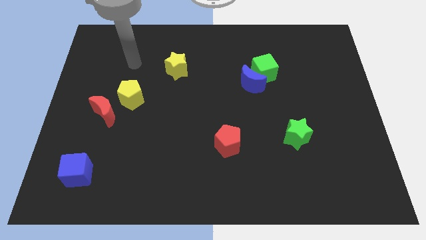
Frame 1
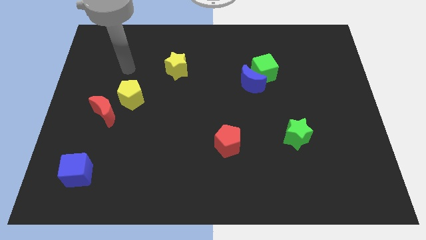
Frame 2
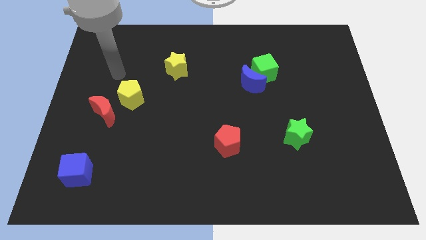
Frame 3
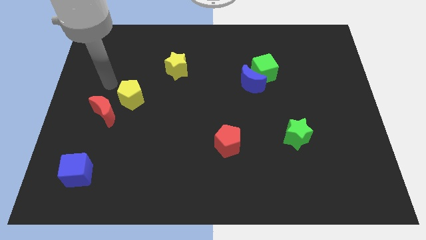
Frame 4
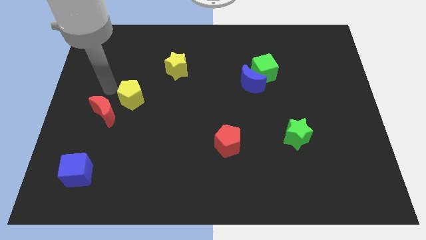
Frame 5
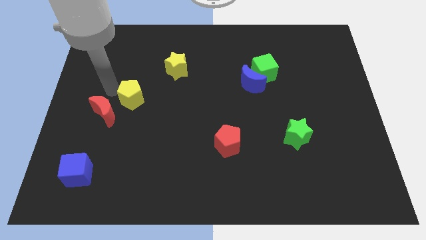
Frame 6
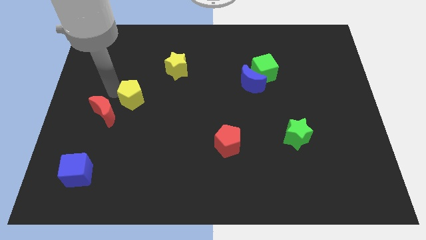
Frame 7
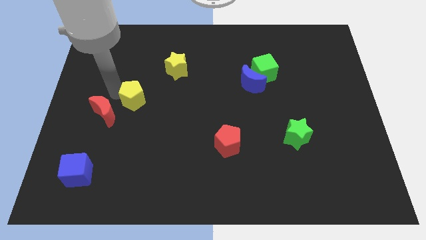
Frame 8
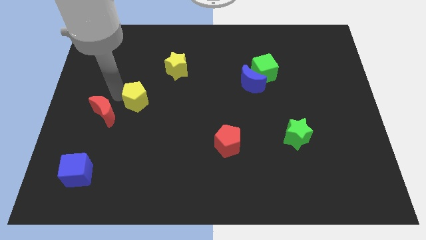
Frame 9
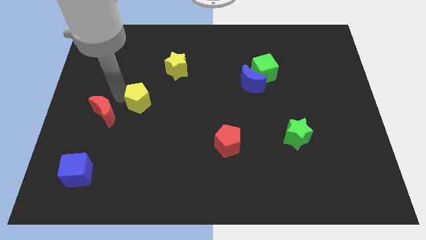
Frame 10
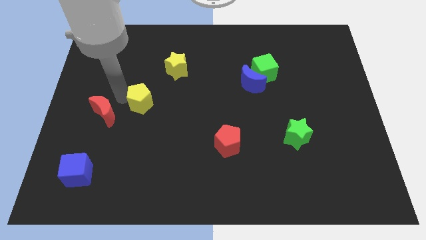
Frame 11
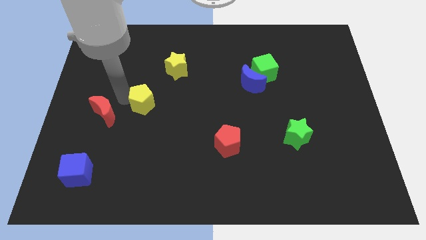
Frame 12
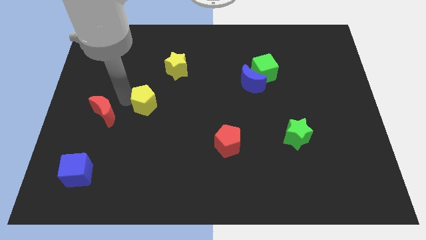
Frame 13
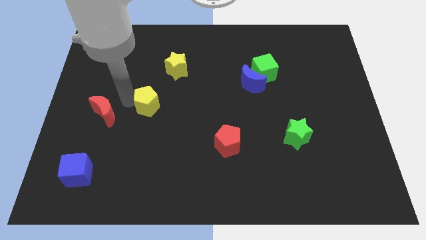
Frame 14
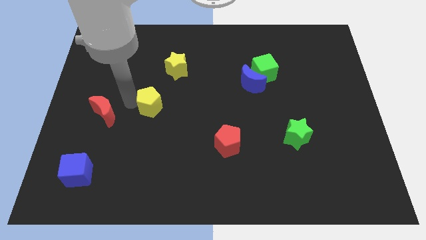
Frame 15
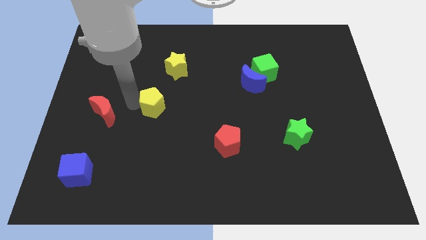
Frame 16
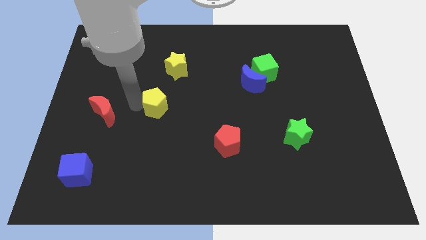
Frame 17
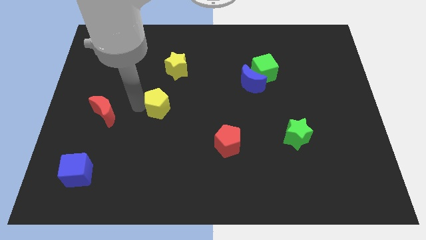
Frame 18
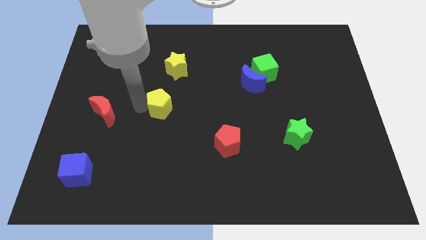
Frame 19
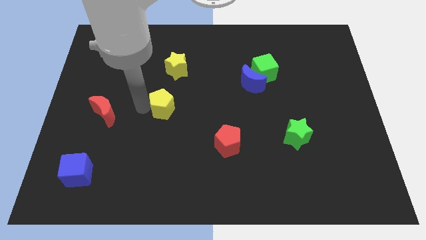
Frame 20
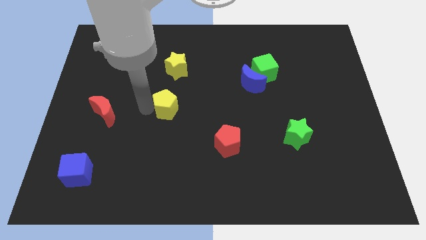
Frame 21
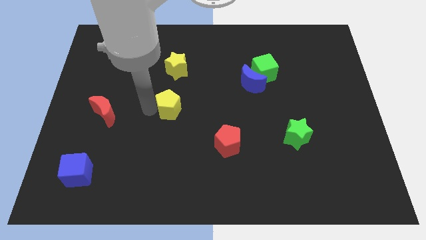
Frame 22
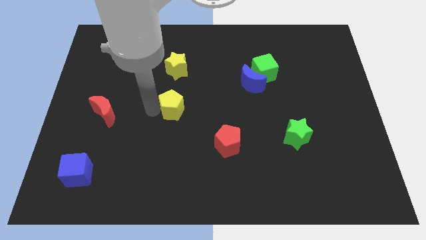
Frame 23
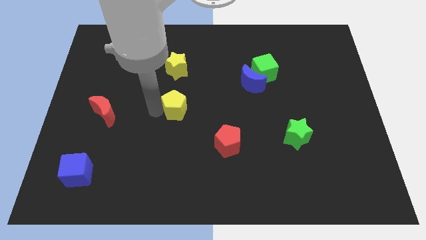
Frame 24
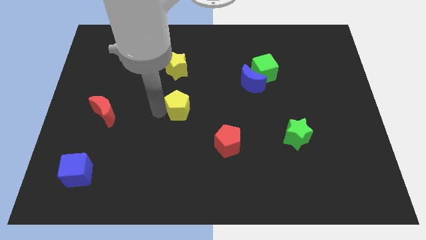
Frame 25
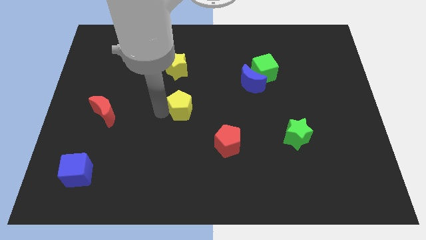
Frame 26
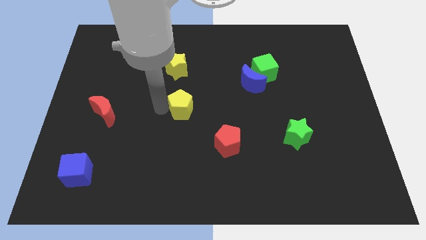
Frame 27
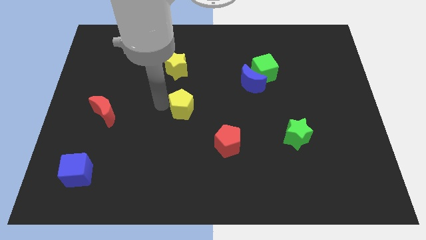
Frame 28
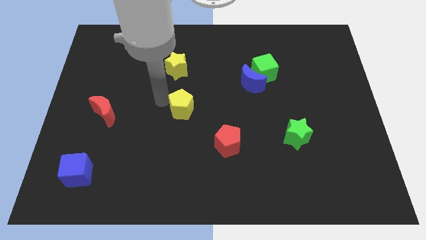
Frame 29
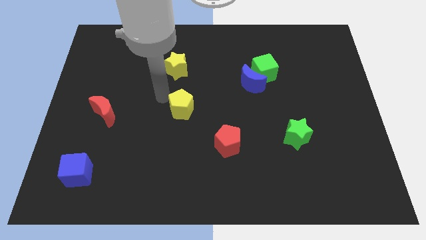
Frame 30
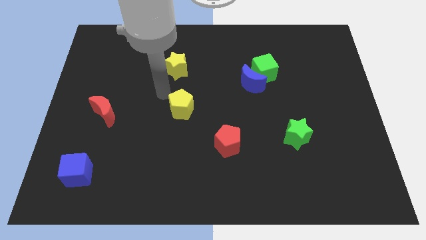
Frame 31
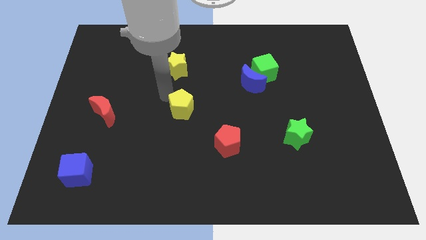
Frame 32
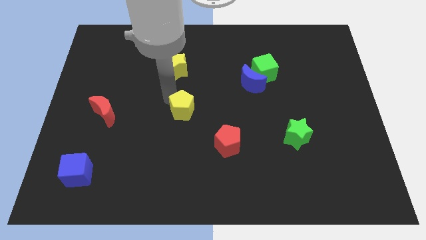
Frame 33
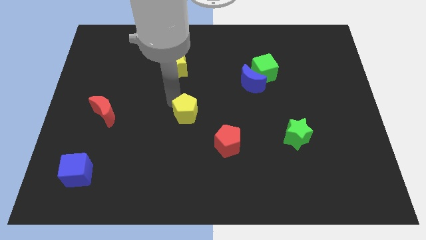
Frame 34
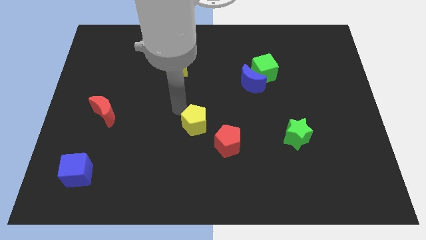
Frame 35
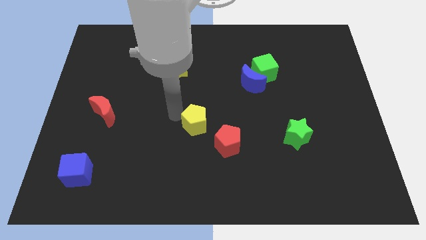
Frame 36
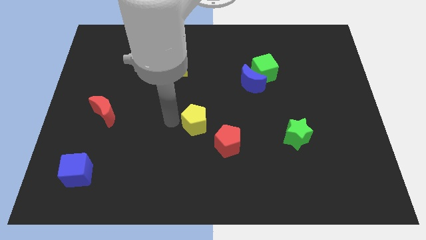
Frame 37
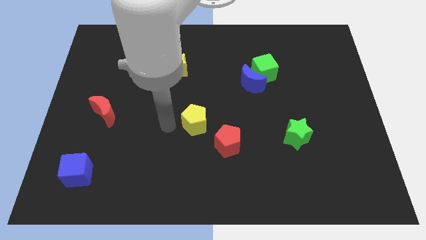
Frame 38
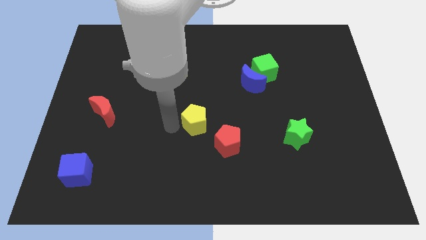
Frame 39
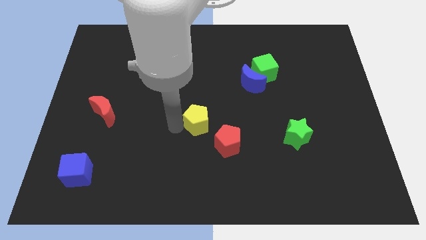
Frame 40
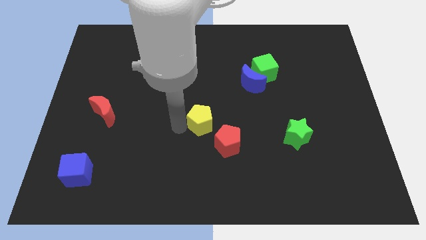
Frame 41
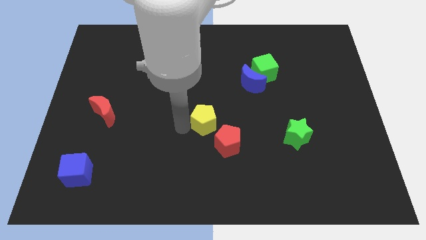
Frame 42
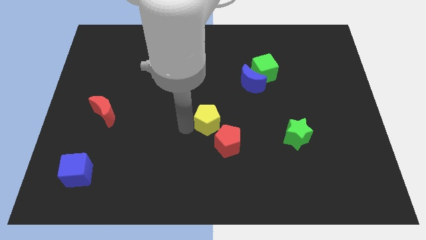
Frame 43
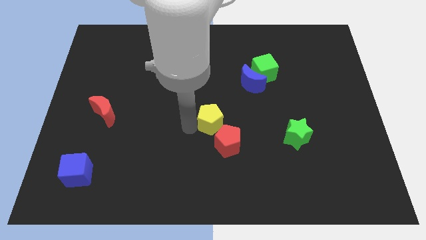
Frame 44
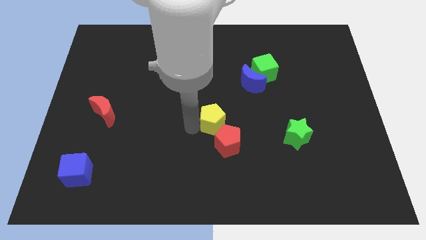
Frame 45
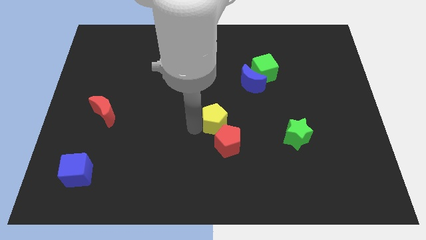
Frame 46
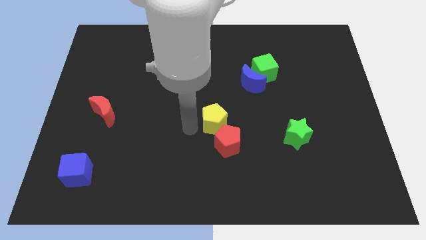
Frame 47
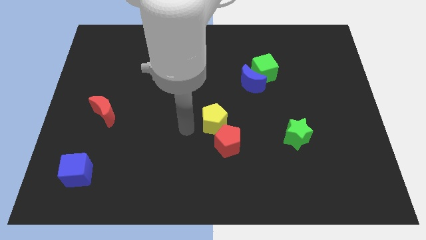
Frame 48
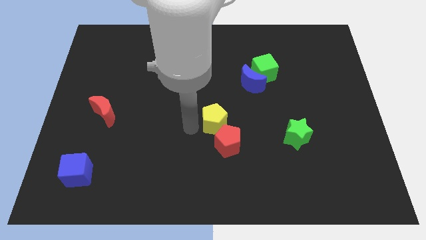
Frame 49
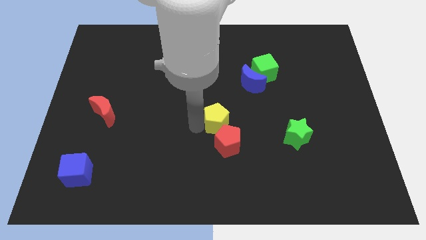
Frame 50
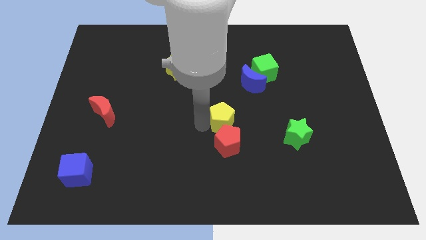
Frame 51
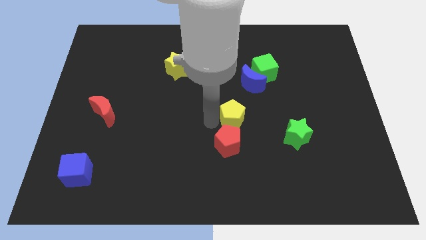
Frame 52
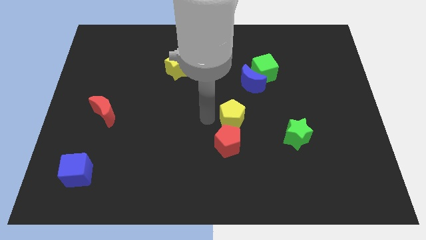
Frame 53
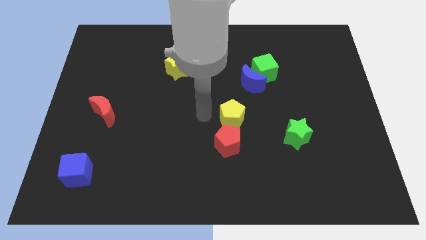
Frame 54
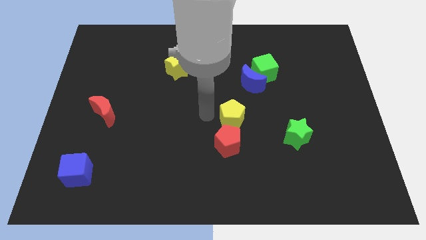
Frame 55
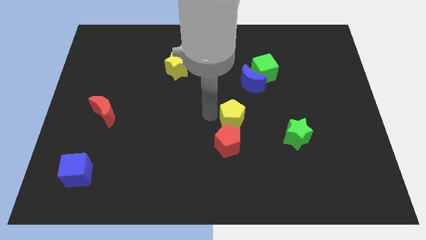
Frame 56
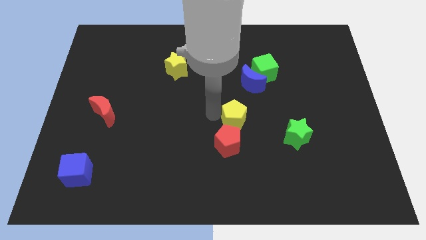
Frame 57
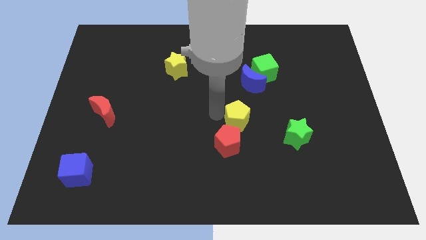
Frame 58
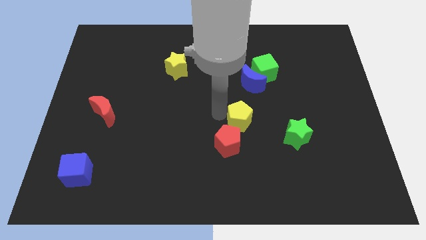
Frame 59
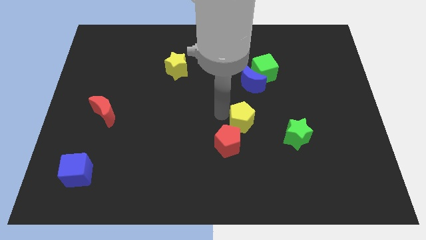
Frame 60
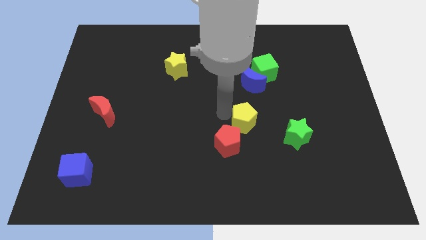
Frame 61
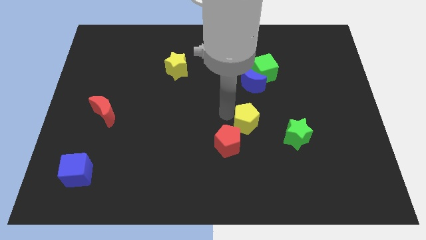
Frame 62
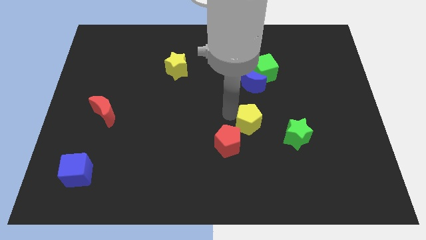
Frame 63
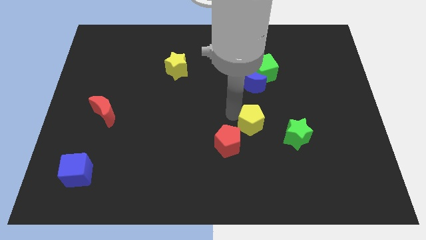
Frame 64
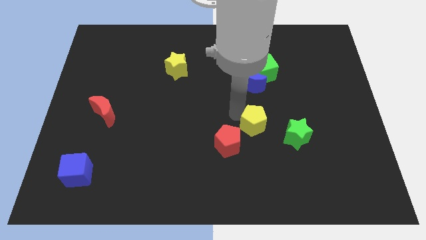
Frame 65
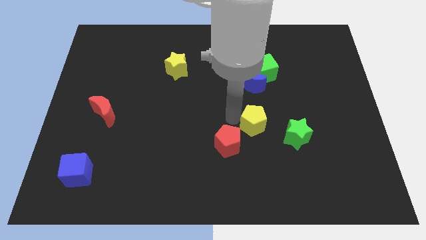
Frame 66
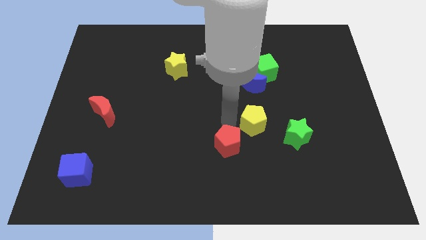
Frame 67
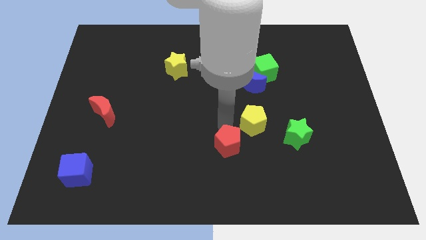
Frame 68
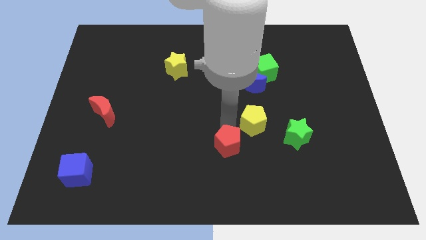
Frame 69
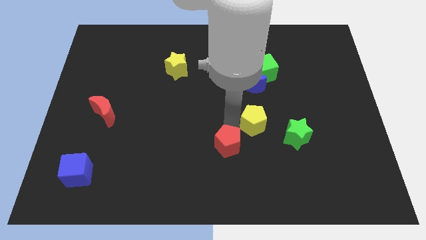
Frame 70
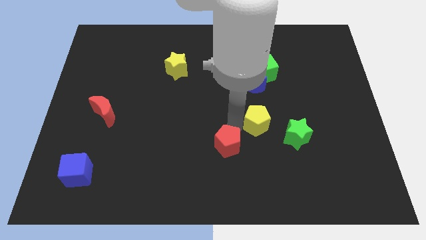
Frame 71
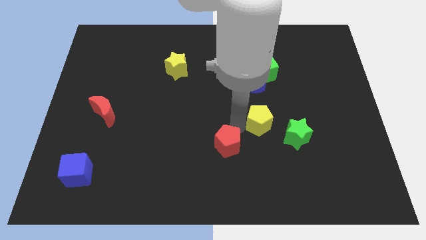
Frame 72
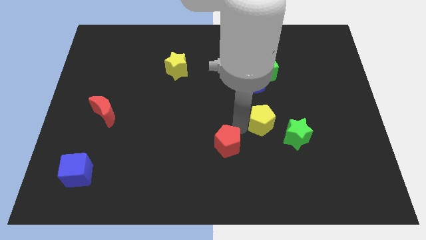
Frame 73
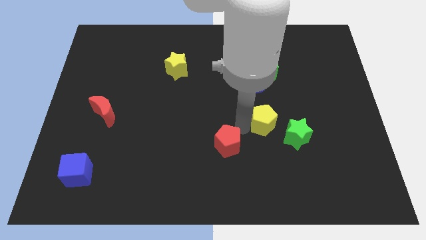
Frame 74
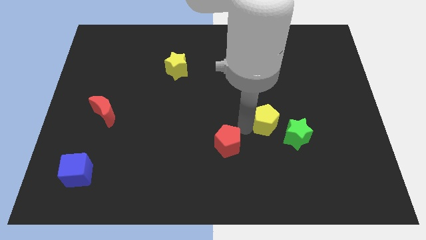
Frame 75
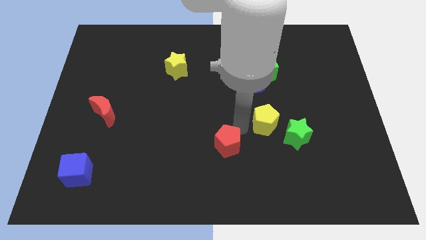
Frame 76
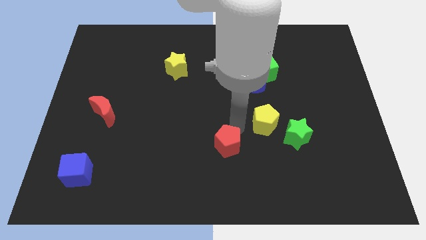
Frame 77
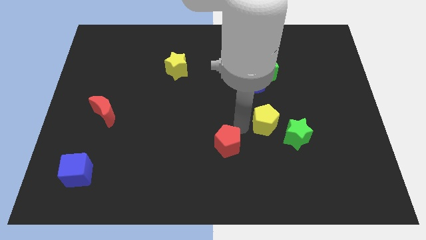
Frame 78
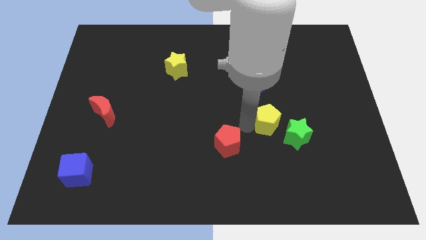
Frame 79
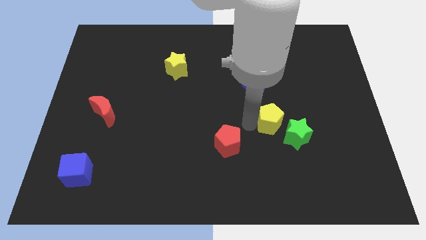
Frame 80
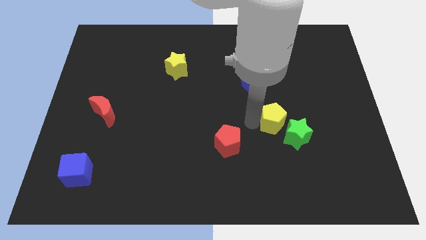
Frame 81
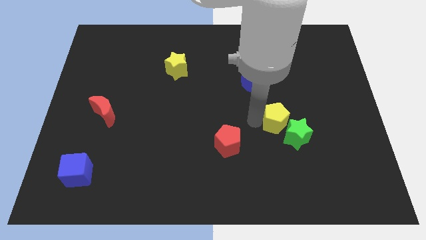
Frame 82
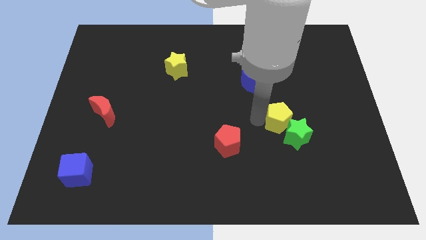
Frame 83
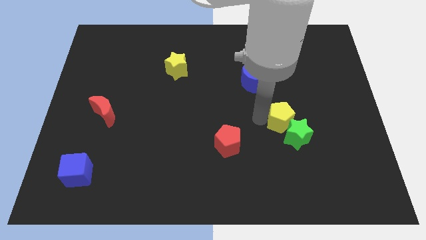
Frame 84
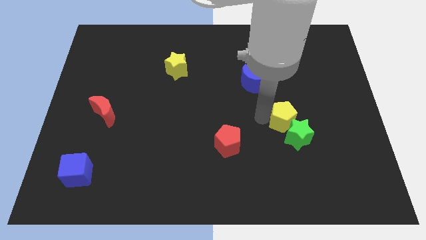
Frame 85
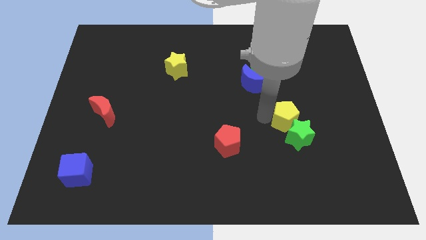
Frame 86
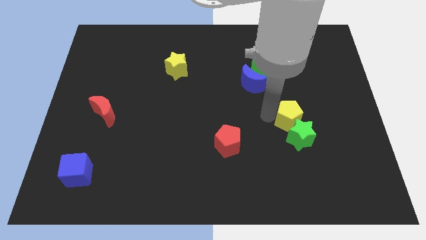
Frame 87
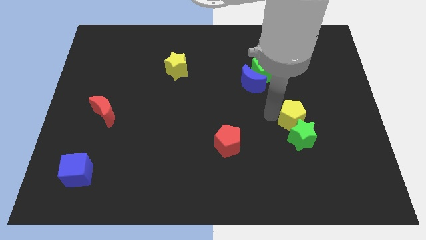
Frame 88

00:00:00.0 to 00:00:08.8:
slide the yellow pentagon to the top right of the green star
